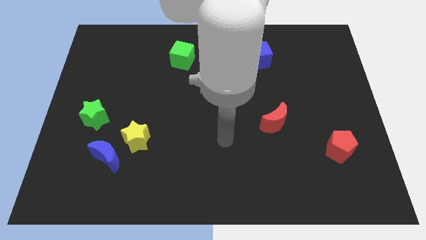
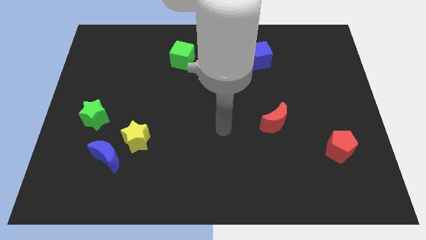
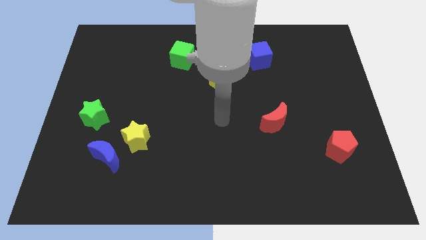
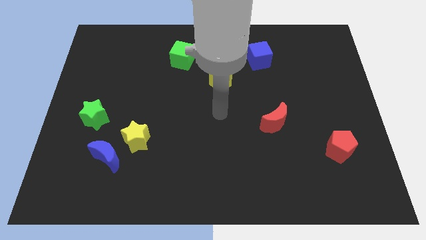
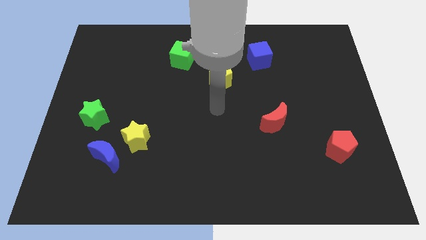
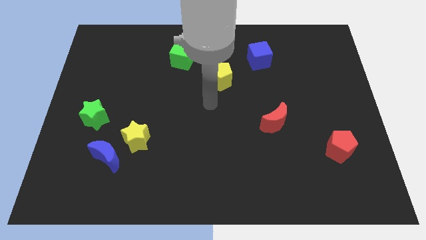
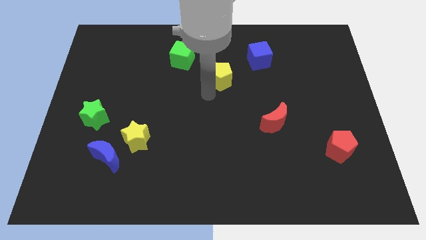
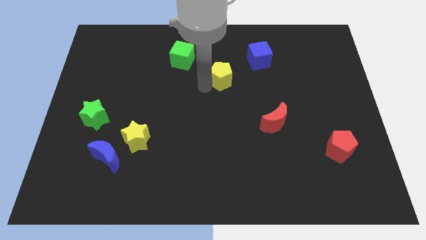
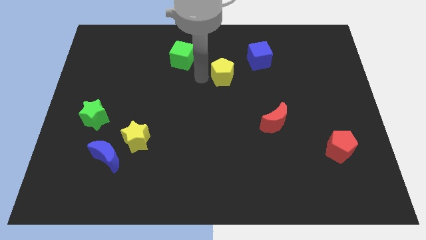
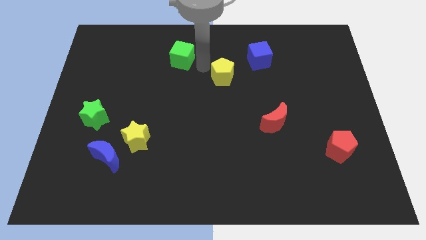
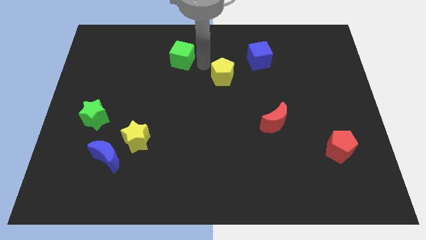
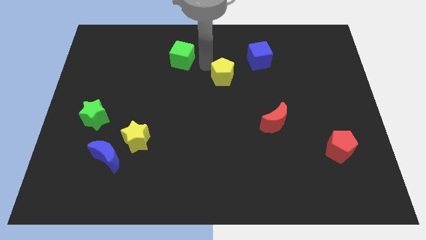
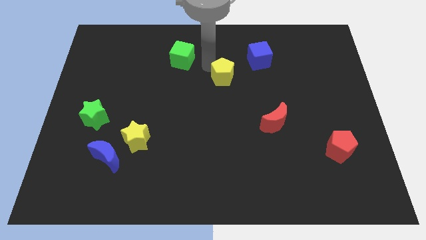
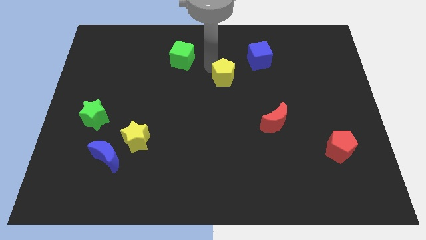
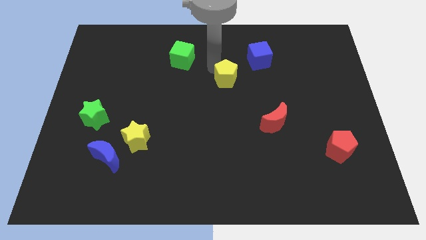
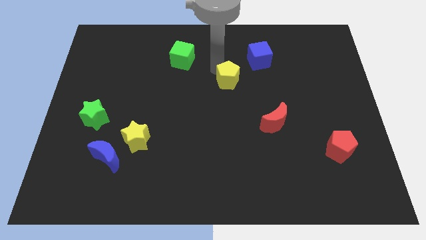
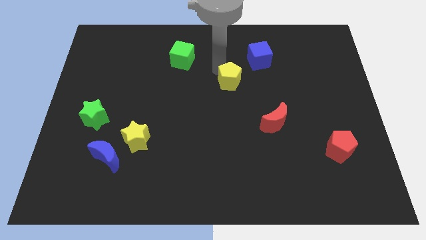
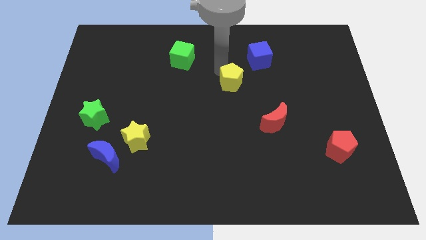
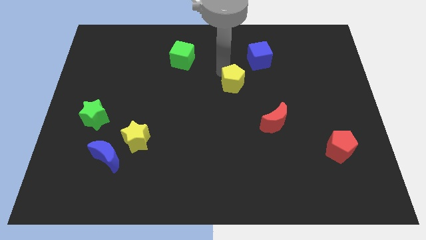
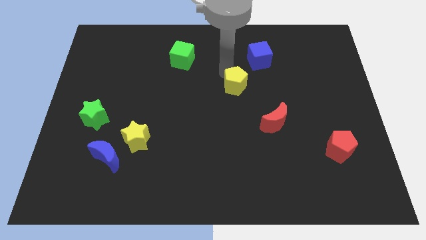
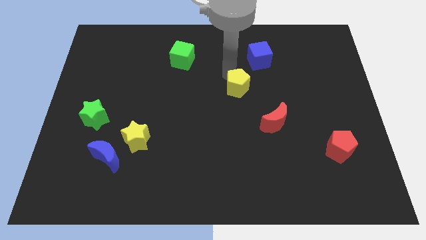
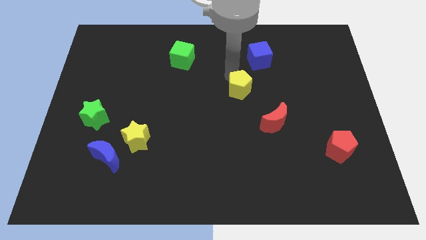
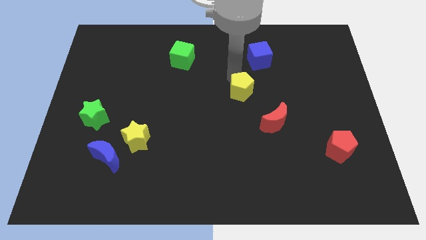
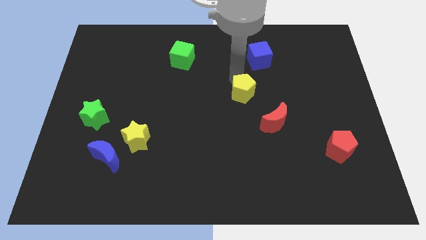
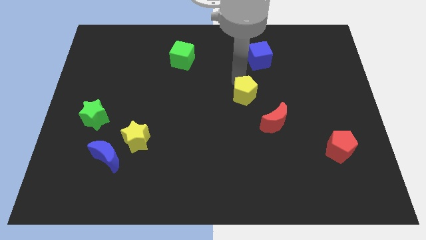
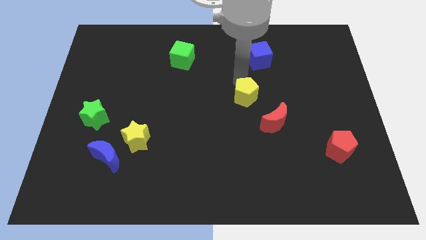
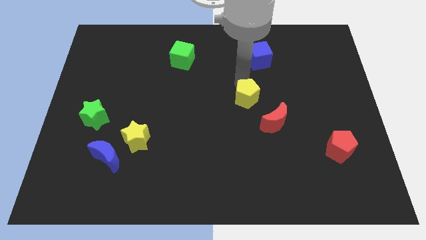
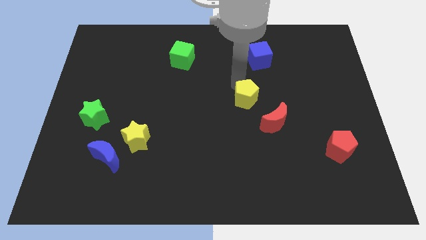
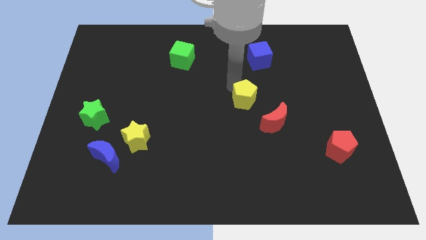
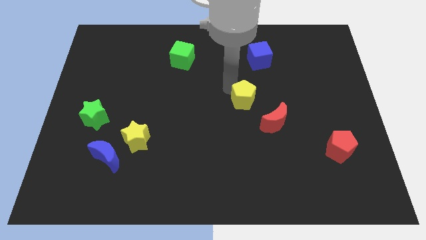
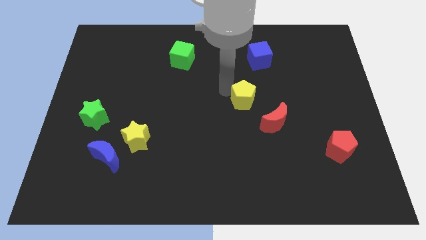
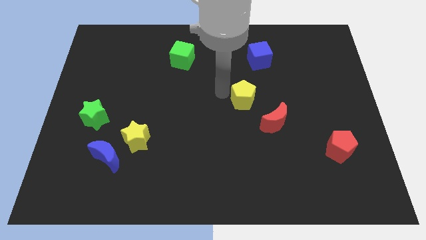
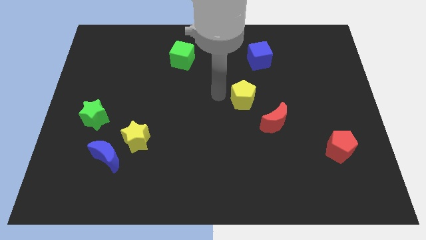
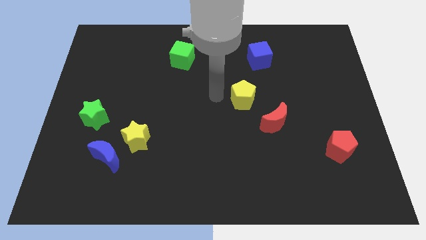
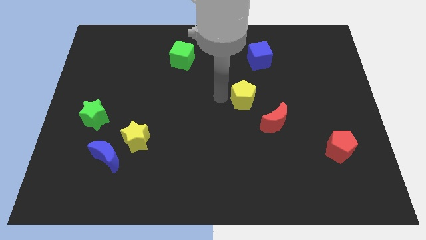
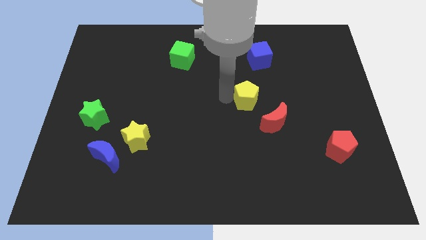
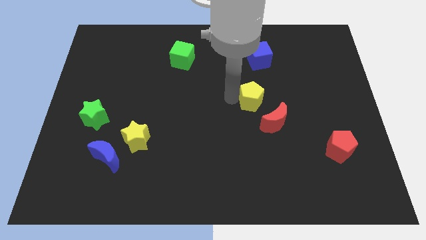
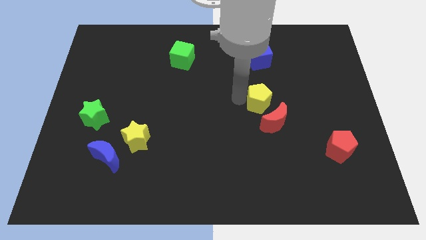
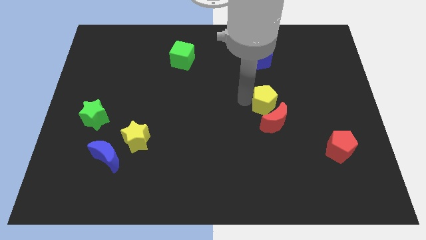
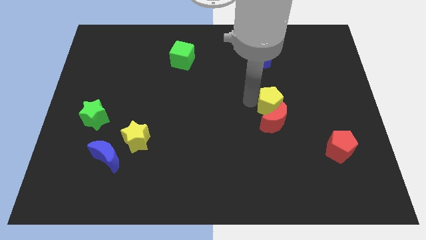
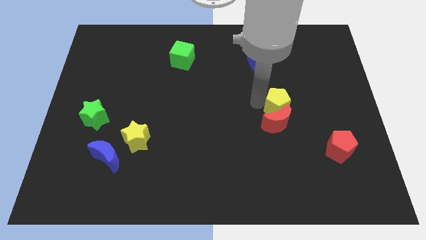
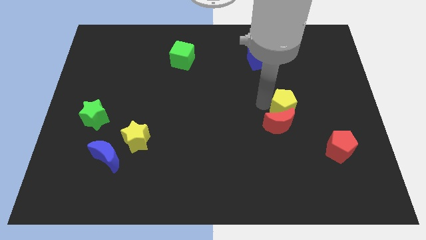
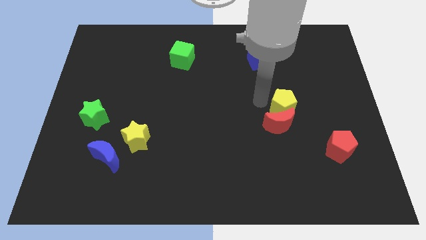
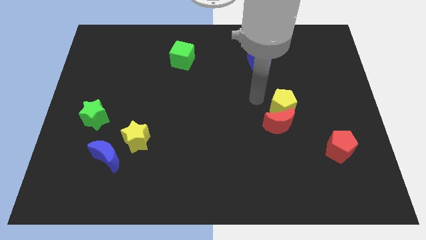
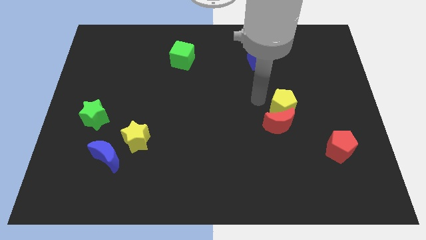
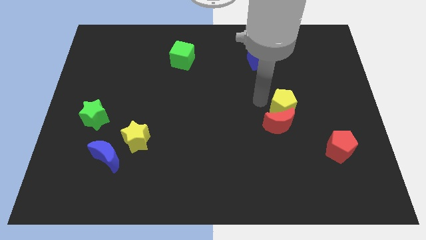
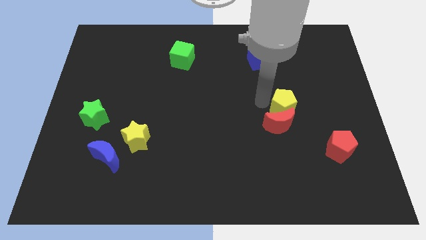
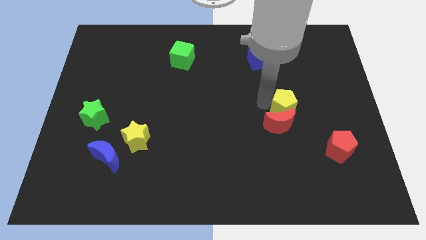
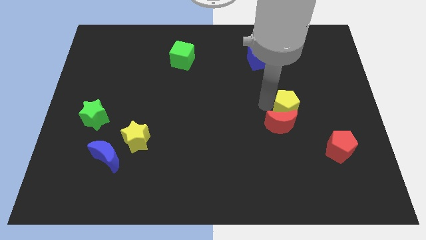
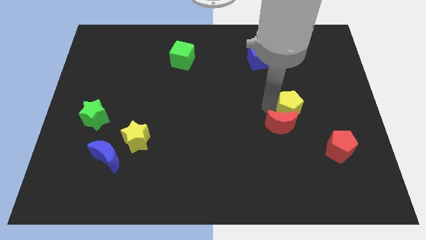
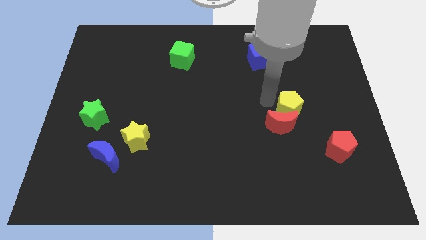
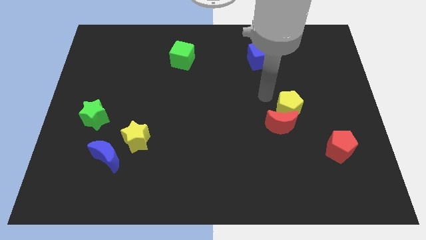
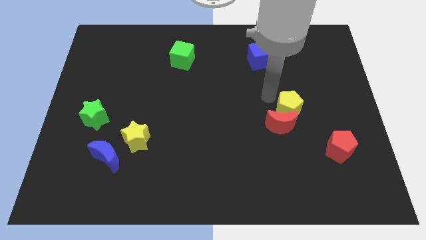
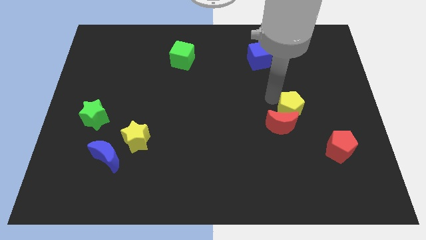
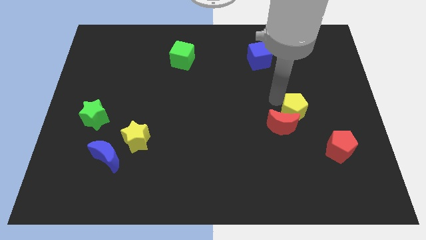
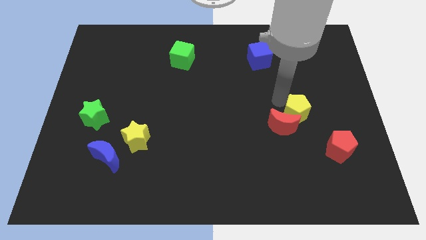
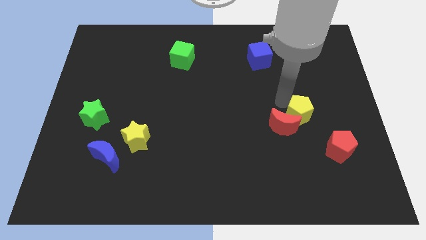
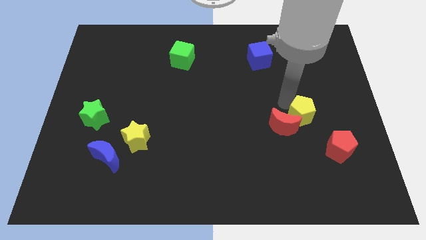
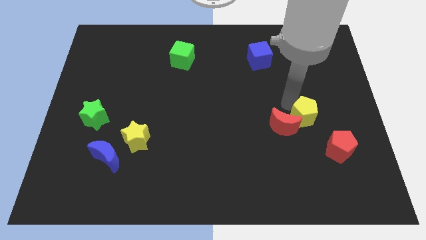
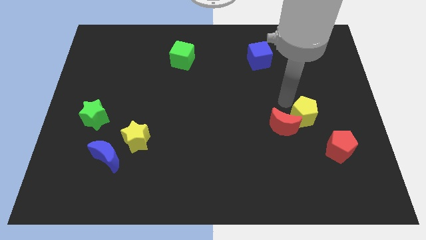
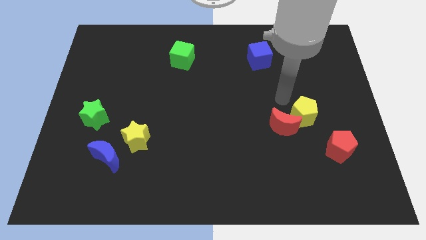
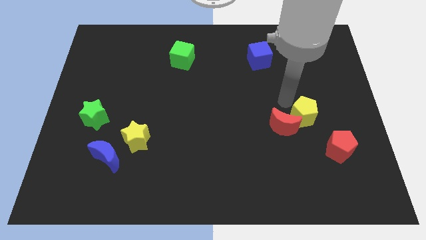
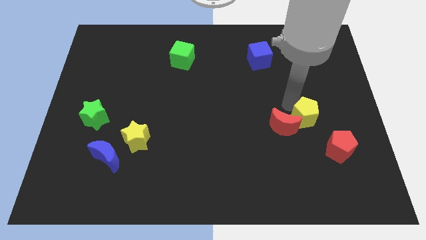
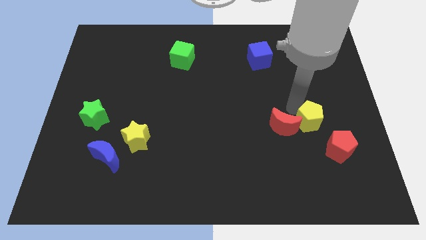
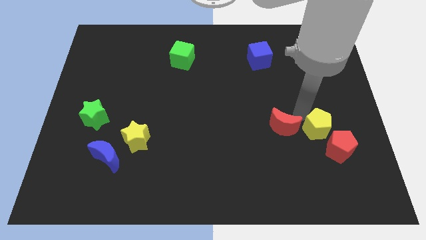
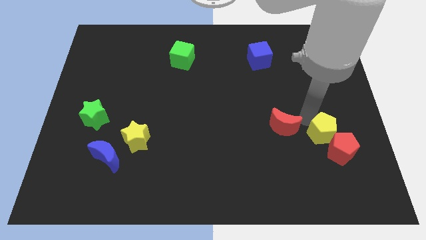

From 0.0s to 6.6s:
push the yellow pentagon to the red pentagon

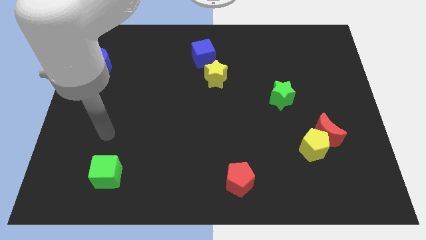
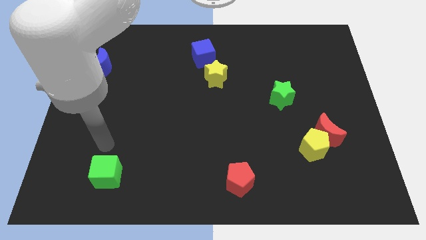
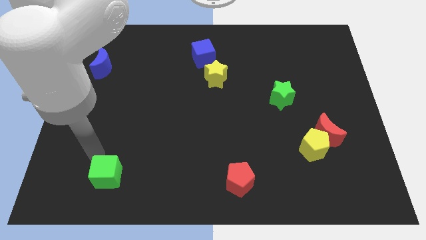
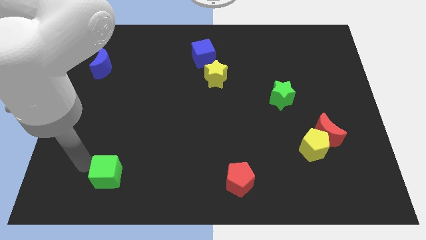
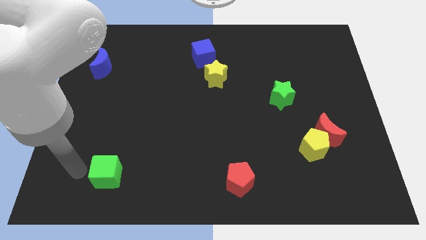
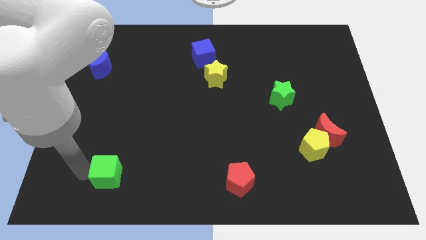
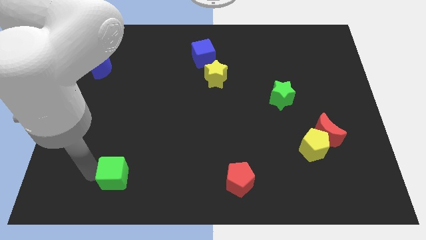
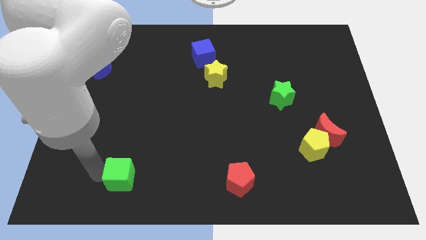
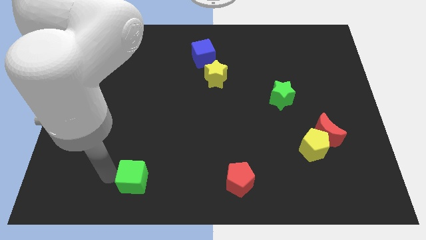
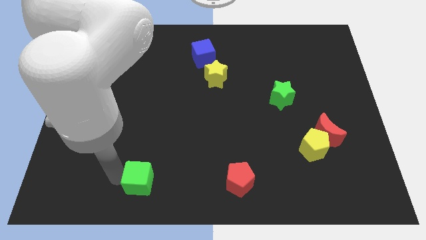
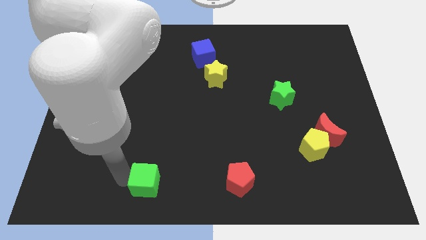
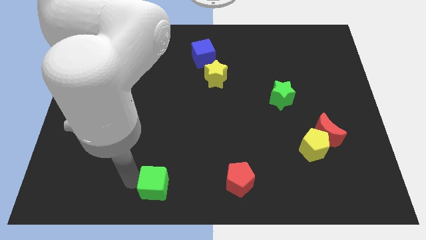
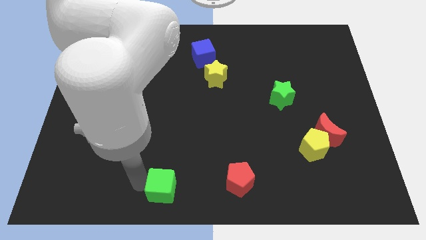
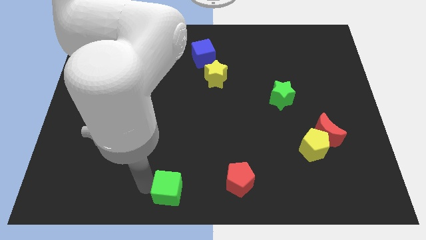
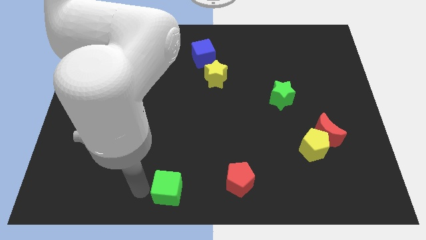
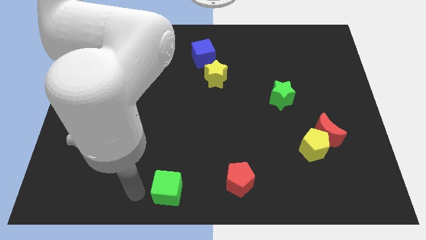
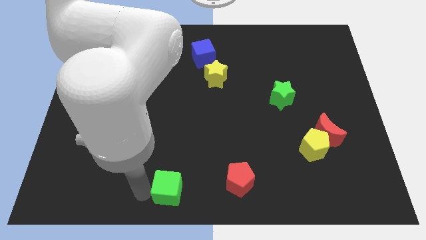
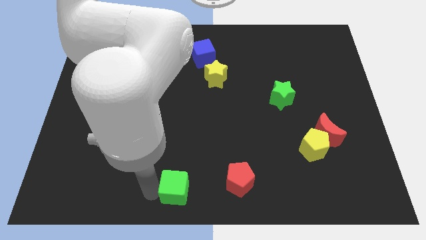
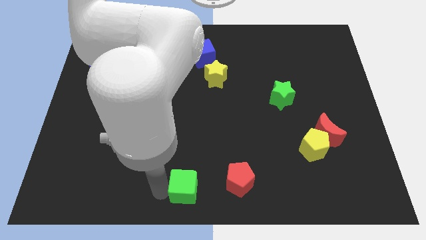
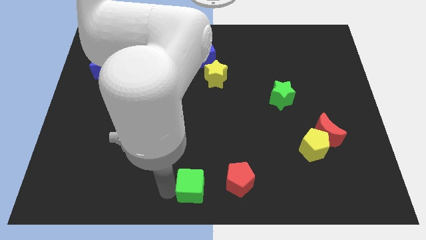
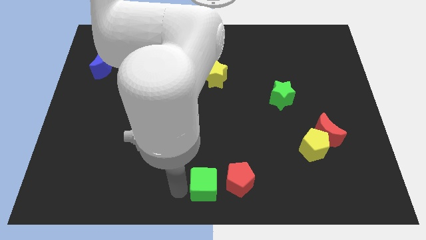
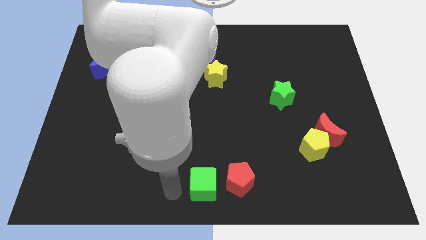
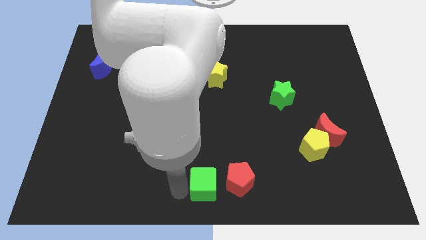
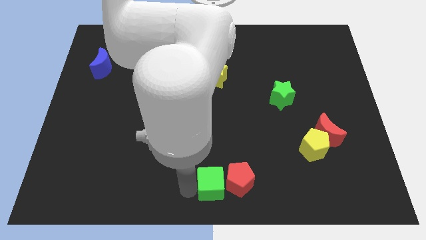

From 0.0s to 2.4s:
move the green cube next to the red pentagon
